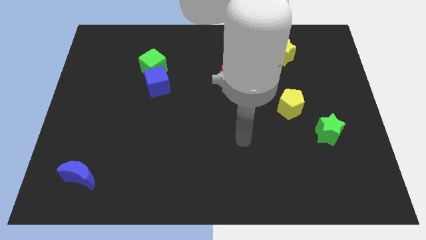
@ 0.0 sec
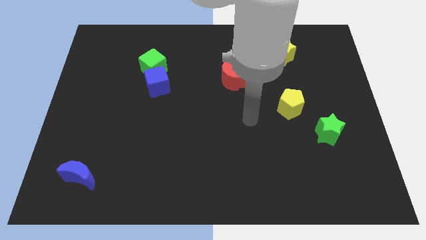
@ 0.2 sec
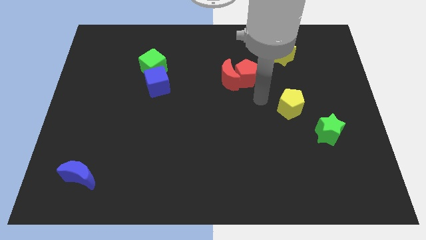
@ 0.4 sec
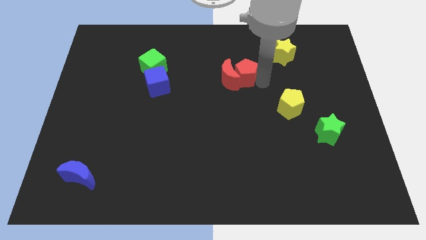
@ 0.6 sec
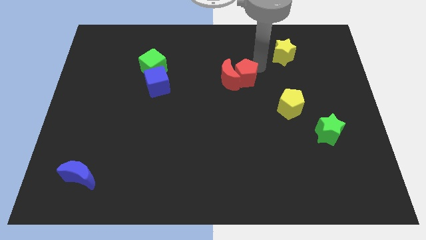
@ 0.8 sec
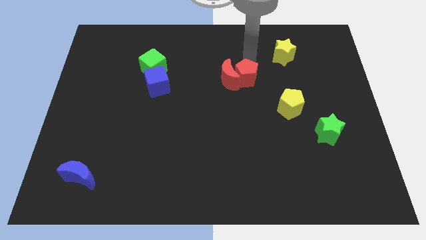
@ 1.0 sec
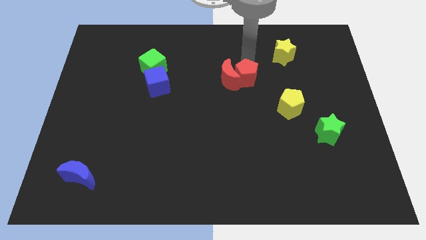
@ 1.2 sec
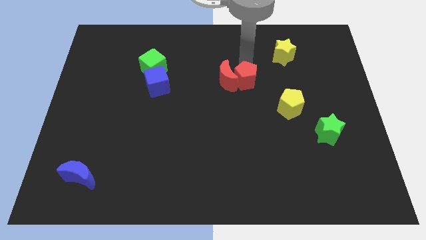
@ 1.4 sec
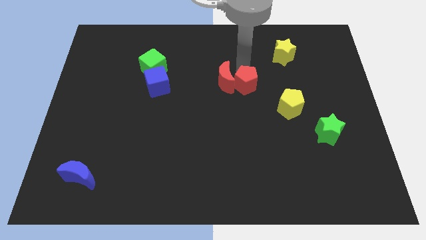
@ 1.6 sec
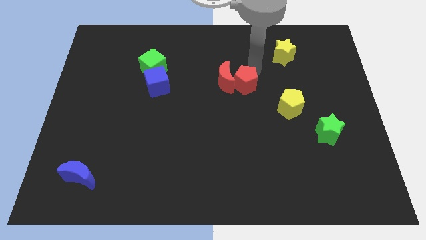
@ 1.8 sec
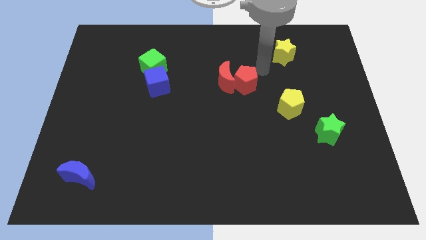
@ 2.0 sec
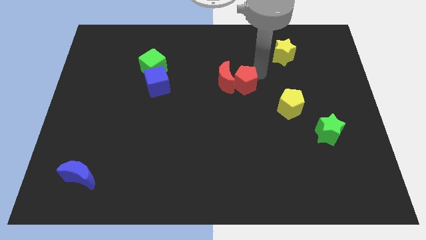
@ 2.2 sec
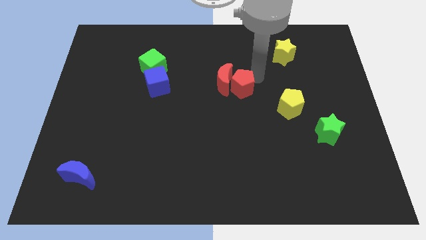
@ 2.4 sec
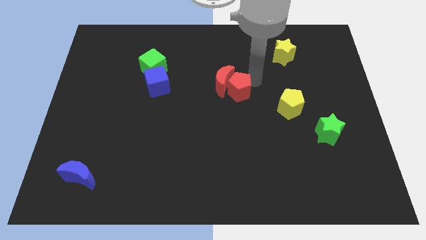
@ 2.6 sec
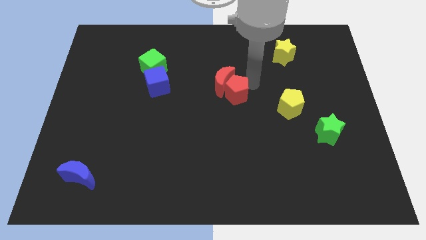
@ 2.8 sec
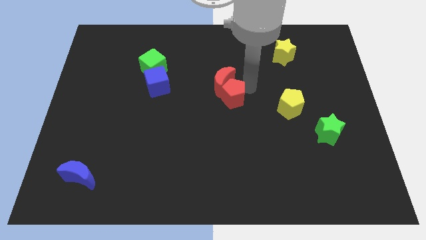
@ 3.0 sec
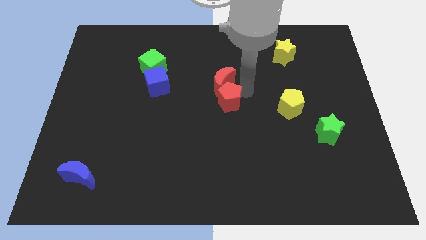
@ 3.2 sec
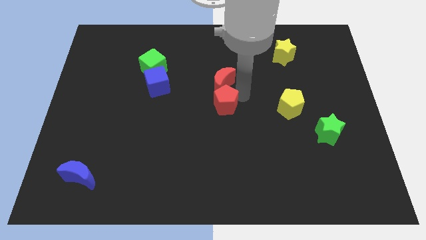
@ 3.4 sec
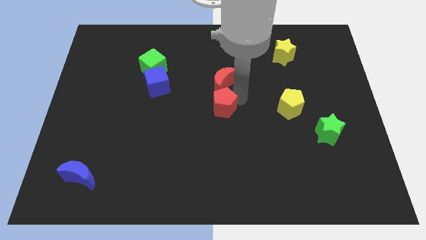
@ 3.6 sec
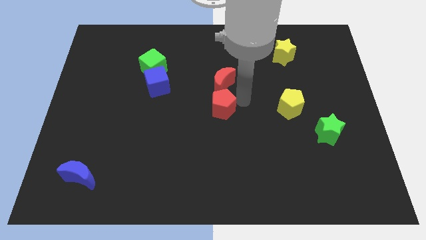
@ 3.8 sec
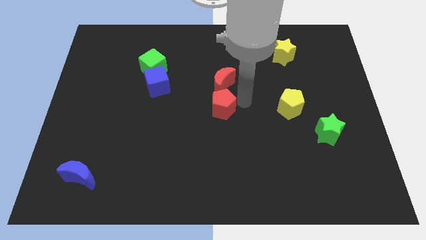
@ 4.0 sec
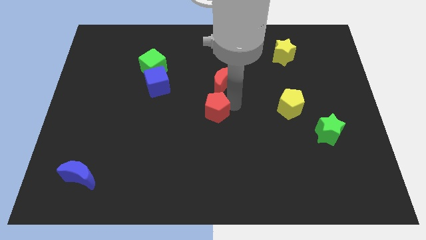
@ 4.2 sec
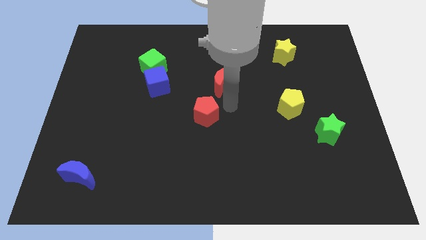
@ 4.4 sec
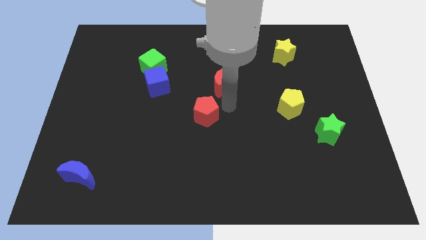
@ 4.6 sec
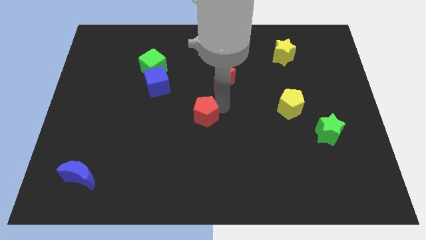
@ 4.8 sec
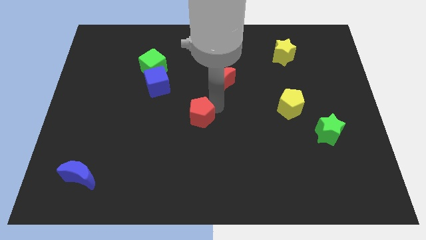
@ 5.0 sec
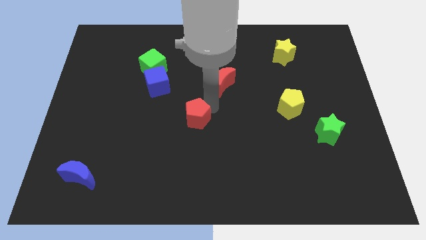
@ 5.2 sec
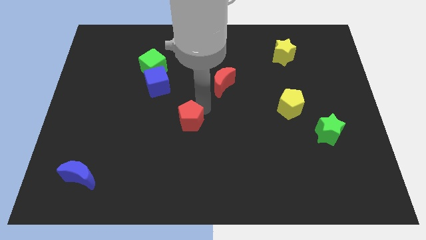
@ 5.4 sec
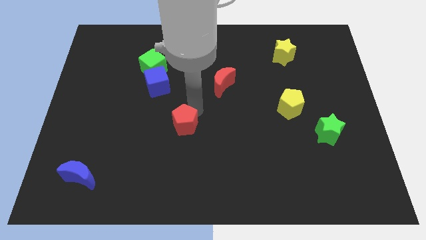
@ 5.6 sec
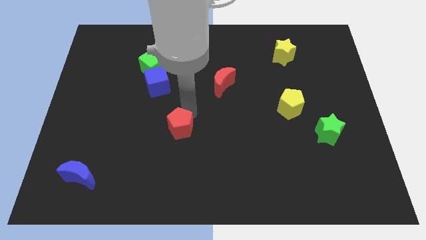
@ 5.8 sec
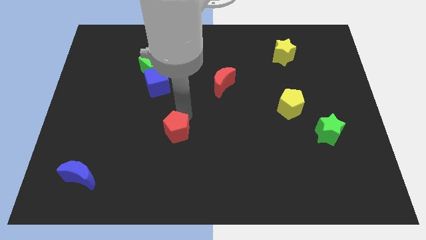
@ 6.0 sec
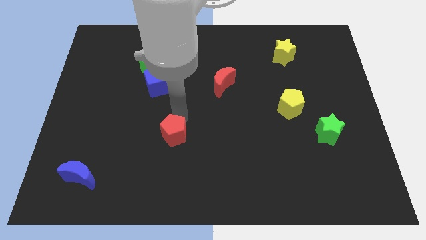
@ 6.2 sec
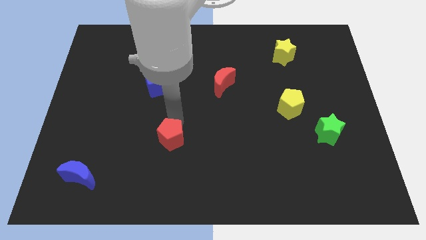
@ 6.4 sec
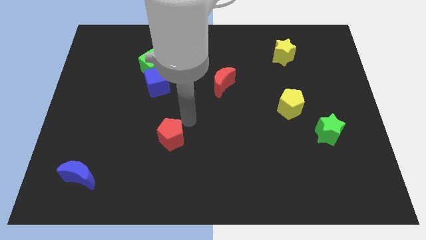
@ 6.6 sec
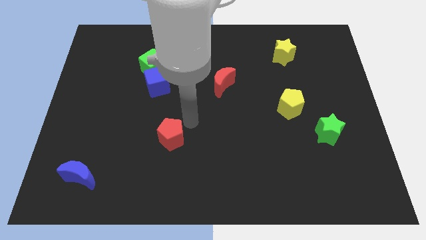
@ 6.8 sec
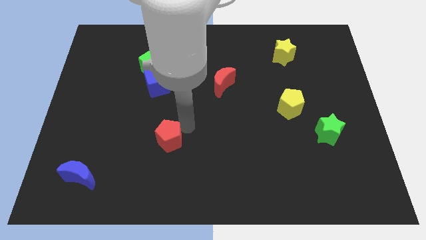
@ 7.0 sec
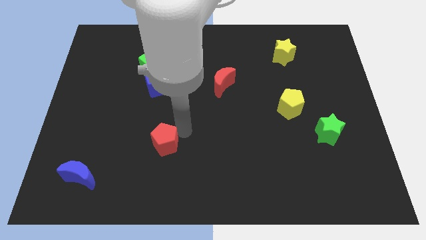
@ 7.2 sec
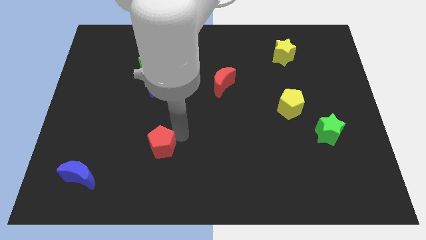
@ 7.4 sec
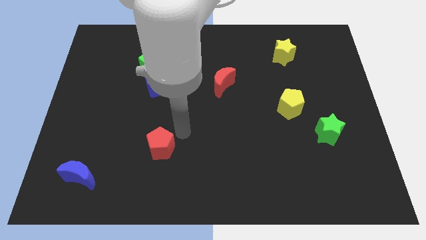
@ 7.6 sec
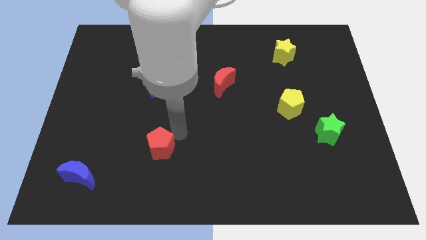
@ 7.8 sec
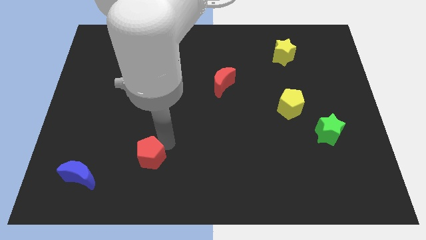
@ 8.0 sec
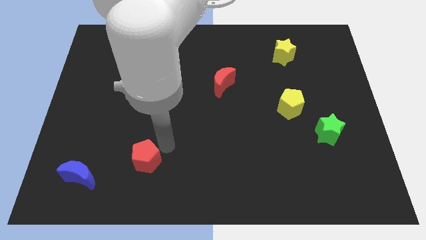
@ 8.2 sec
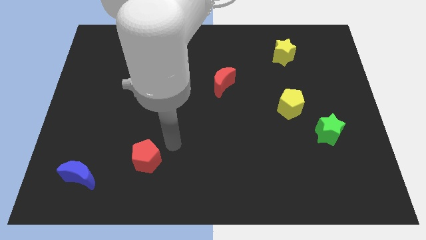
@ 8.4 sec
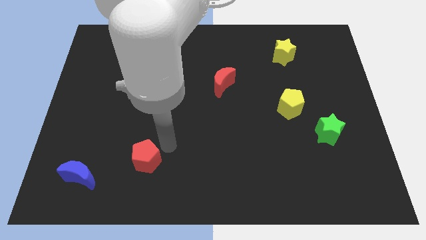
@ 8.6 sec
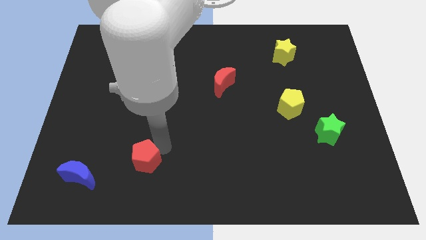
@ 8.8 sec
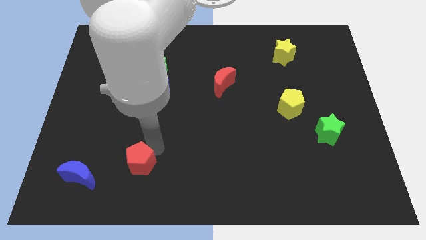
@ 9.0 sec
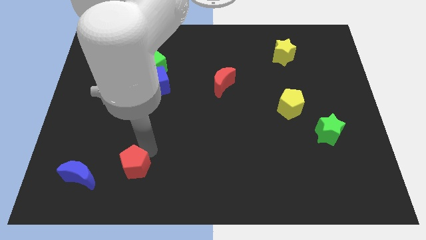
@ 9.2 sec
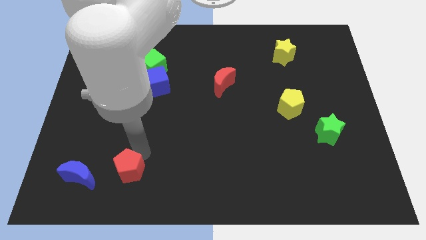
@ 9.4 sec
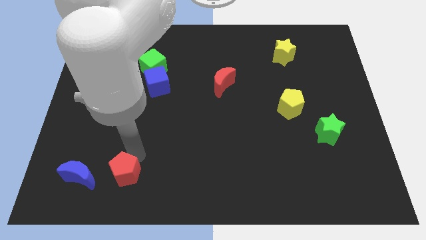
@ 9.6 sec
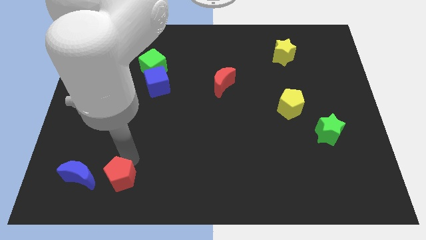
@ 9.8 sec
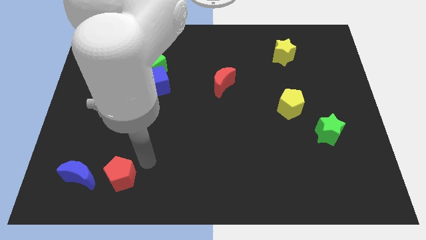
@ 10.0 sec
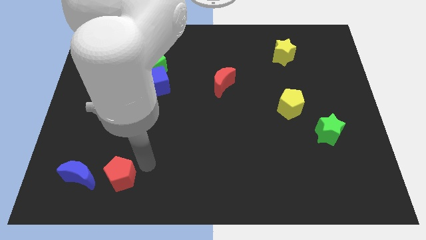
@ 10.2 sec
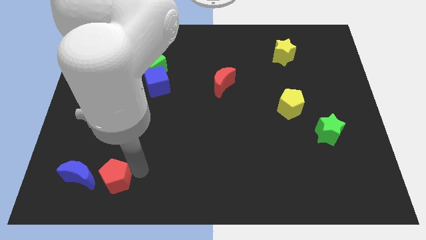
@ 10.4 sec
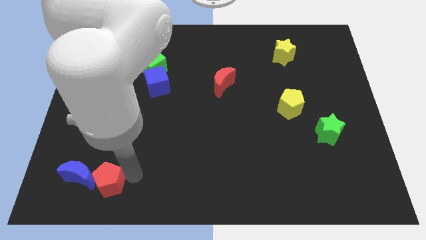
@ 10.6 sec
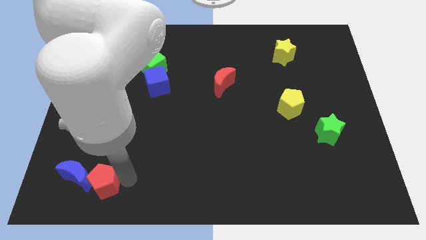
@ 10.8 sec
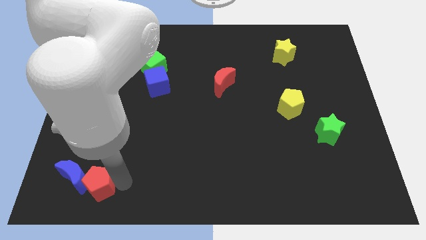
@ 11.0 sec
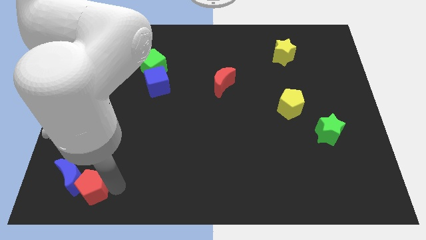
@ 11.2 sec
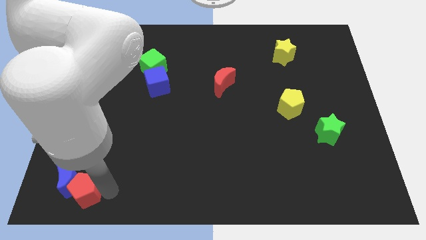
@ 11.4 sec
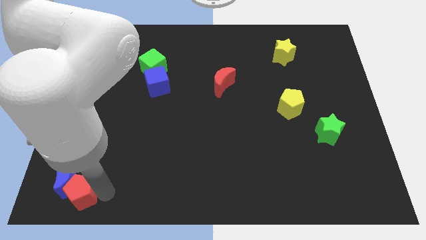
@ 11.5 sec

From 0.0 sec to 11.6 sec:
put the red pentagon to the bottom left of the board
